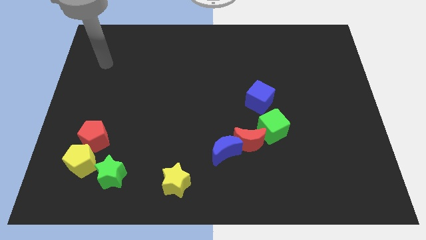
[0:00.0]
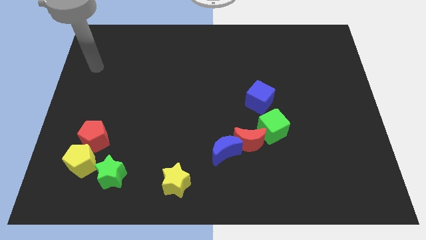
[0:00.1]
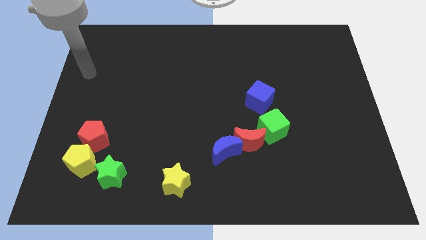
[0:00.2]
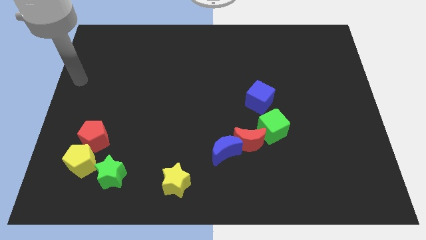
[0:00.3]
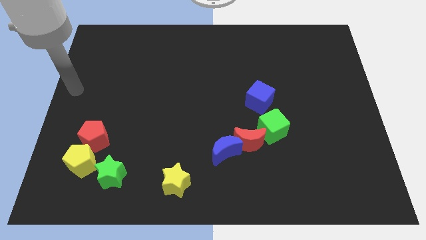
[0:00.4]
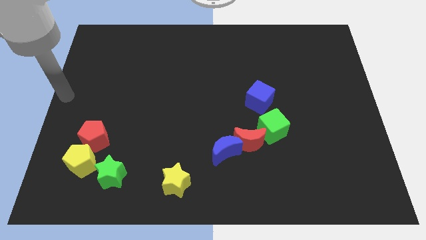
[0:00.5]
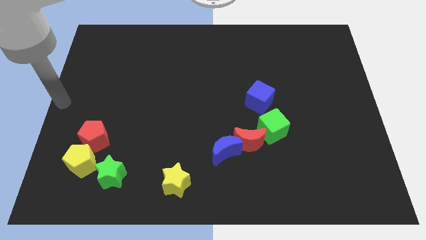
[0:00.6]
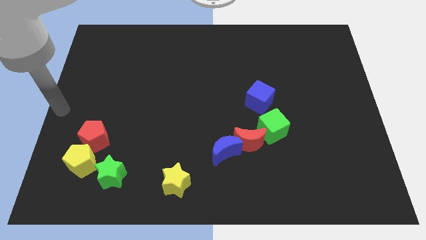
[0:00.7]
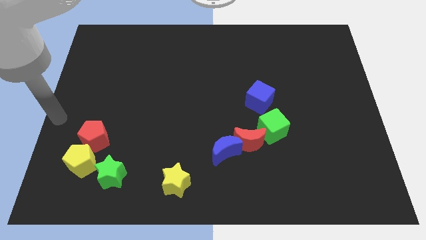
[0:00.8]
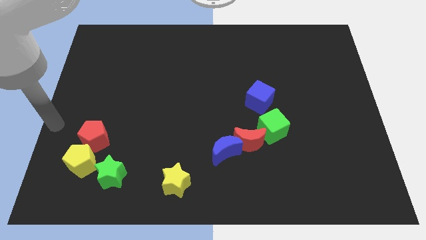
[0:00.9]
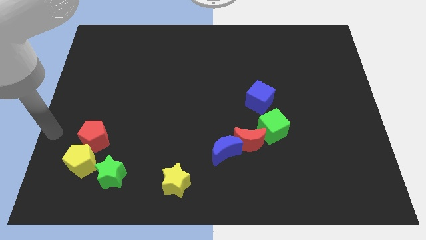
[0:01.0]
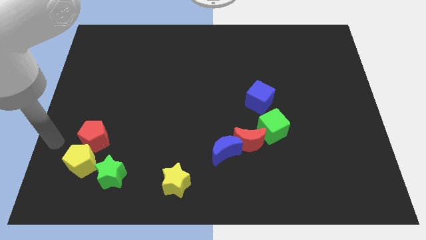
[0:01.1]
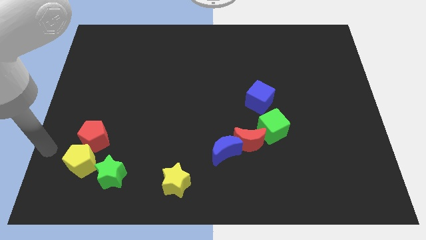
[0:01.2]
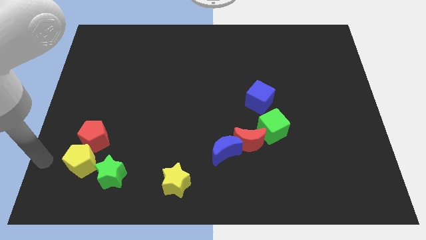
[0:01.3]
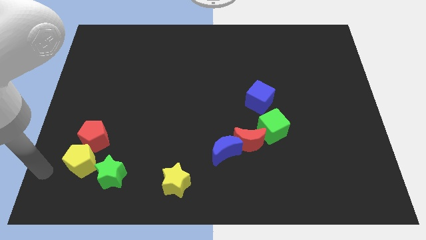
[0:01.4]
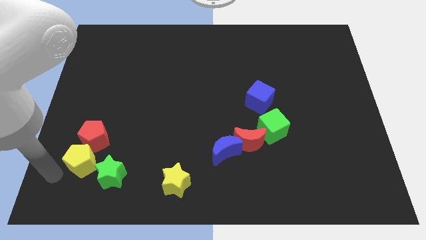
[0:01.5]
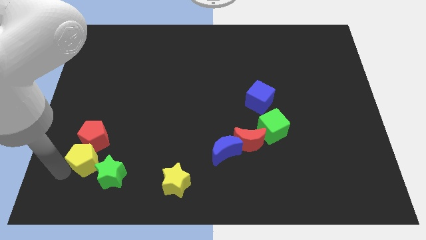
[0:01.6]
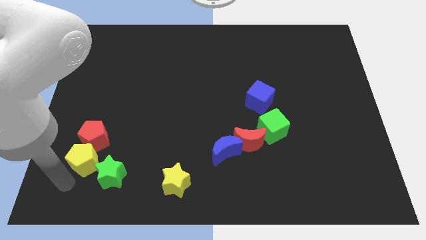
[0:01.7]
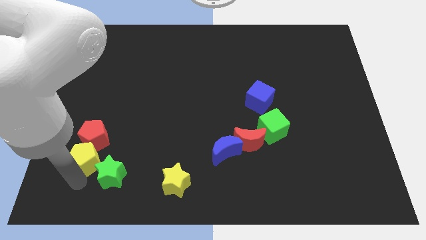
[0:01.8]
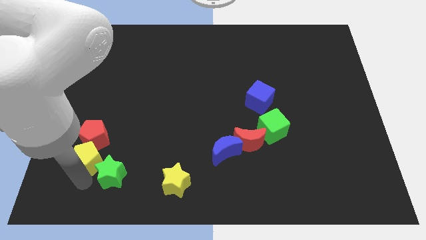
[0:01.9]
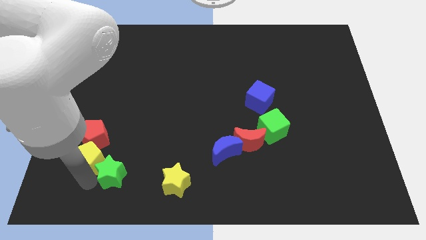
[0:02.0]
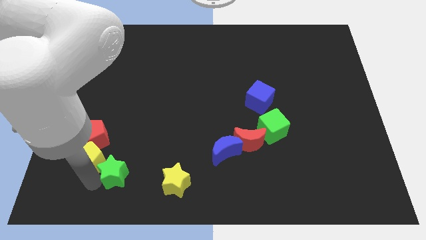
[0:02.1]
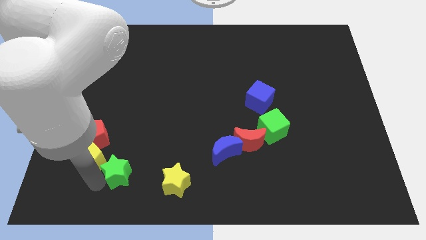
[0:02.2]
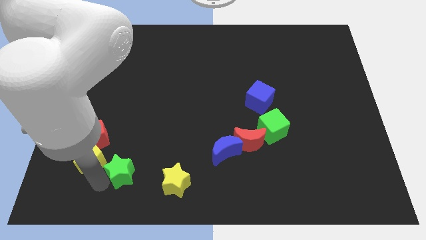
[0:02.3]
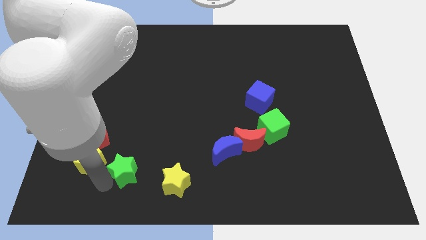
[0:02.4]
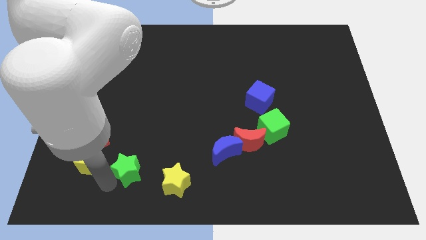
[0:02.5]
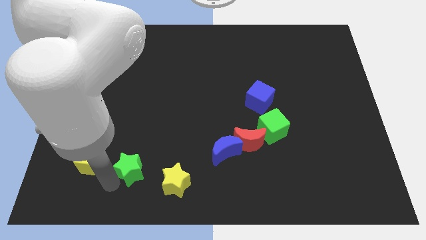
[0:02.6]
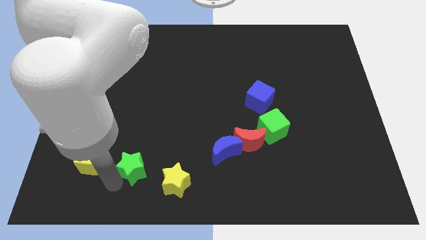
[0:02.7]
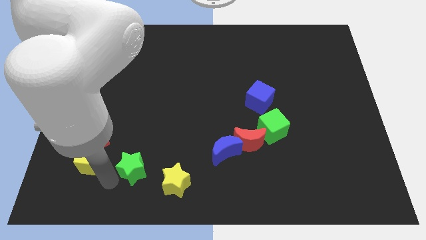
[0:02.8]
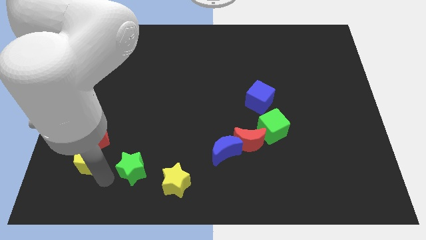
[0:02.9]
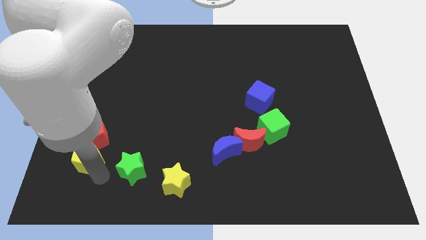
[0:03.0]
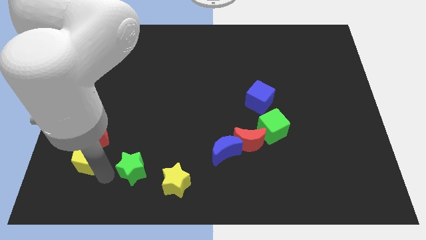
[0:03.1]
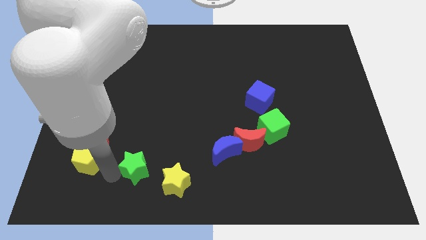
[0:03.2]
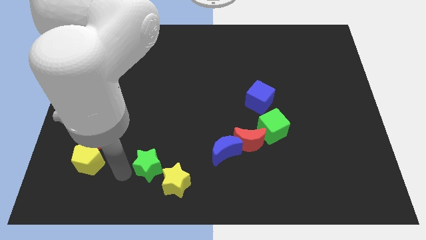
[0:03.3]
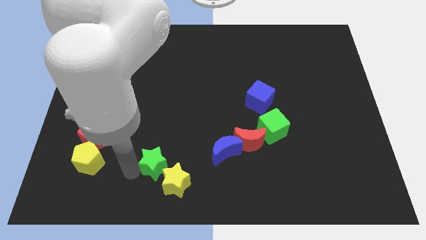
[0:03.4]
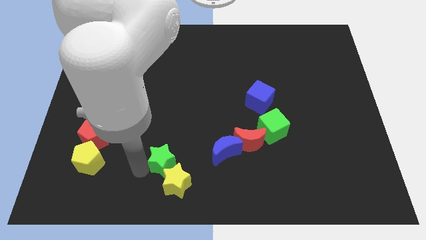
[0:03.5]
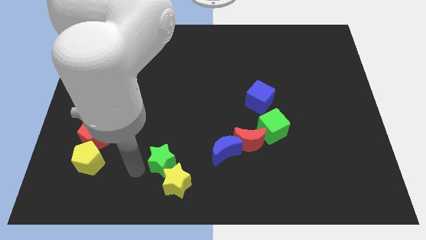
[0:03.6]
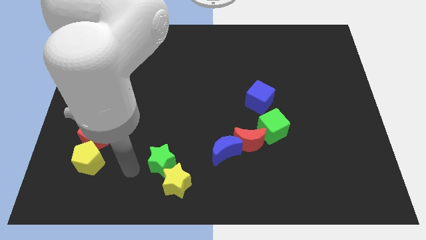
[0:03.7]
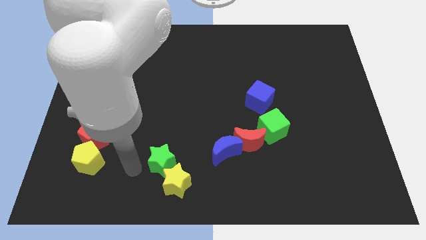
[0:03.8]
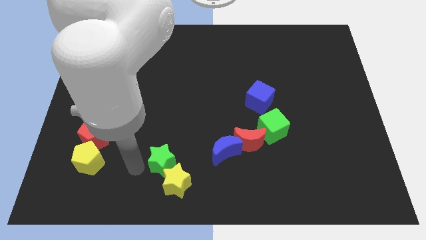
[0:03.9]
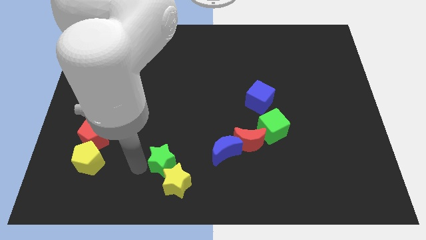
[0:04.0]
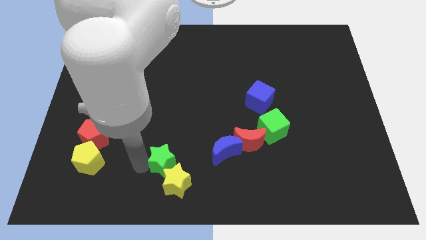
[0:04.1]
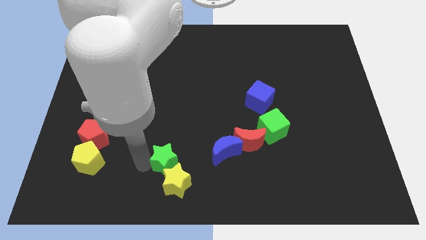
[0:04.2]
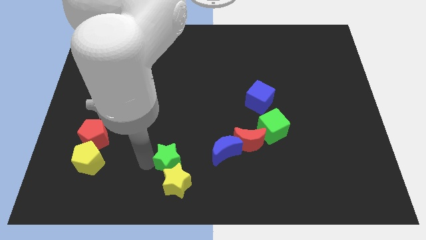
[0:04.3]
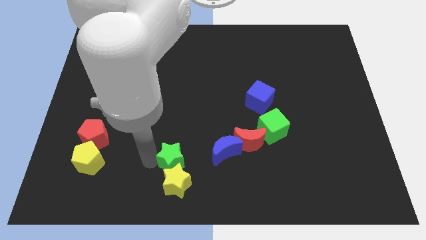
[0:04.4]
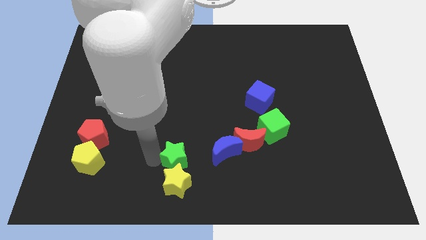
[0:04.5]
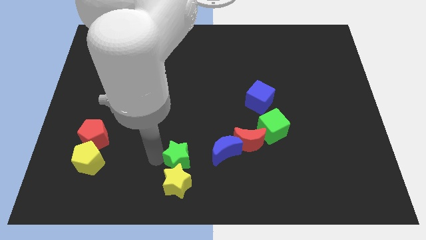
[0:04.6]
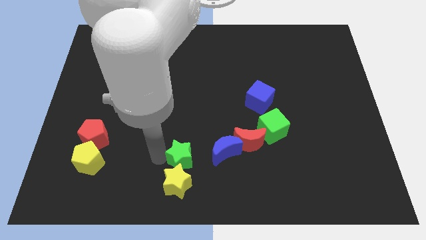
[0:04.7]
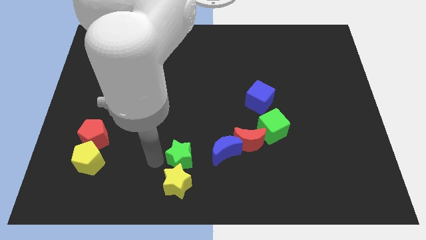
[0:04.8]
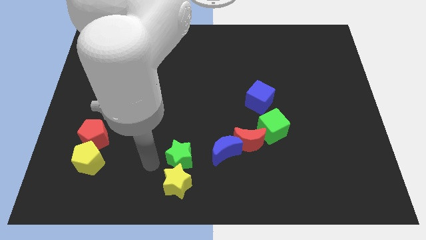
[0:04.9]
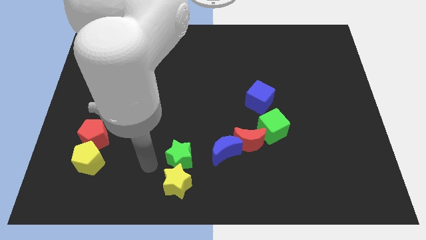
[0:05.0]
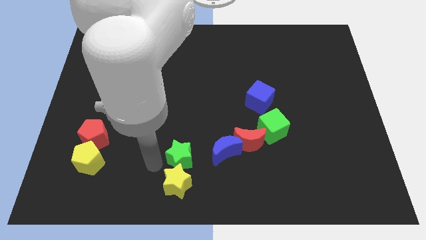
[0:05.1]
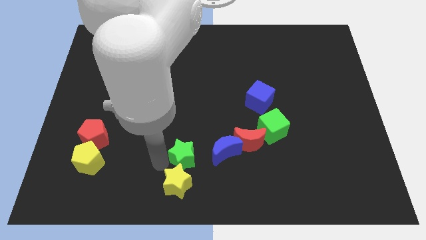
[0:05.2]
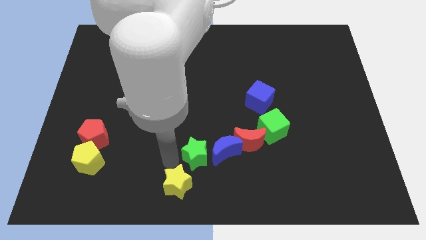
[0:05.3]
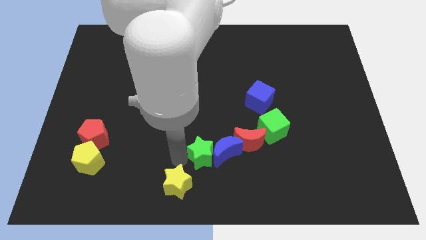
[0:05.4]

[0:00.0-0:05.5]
push the green star to the blue moon

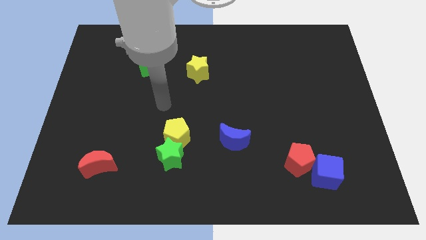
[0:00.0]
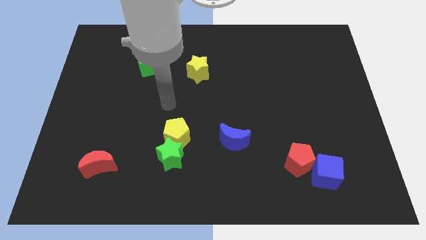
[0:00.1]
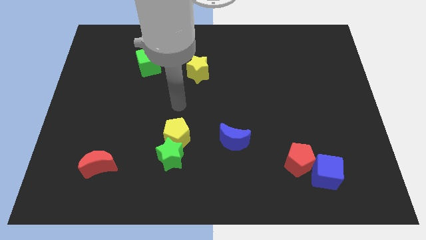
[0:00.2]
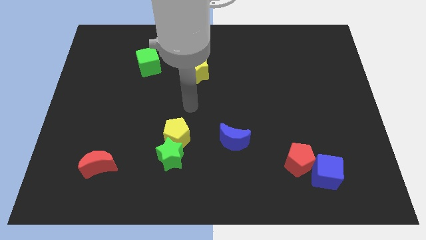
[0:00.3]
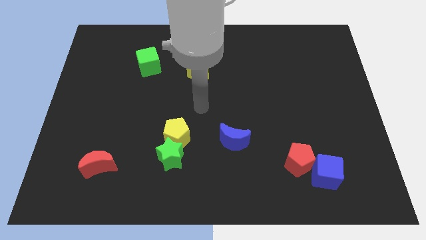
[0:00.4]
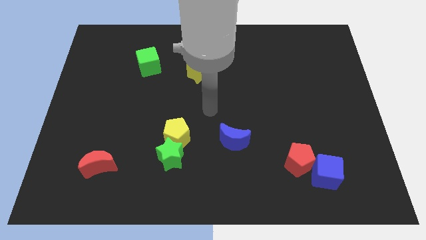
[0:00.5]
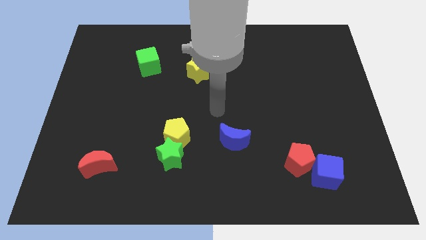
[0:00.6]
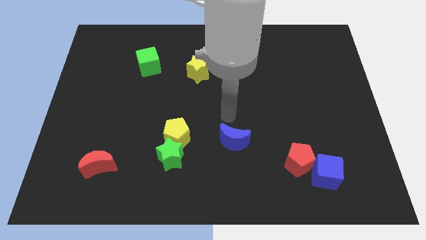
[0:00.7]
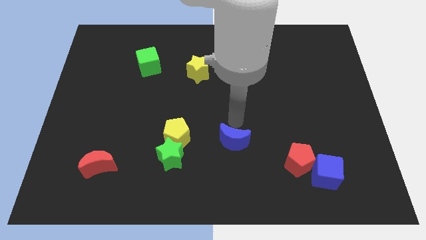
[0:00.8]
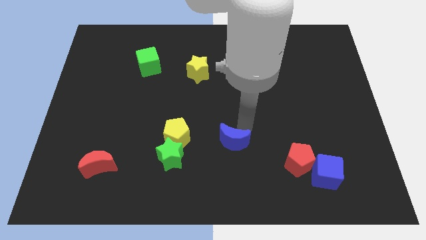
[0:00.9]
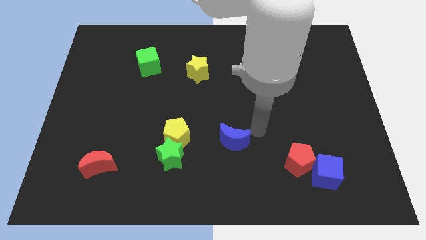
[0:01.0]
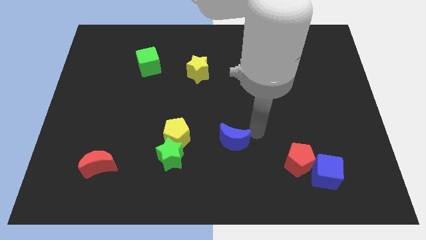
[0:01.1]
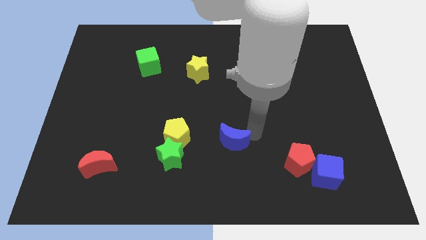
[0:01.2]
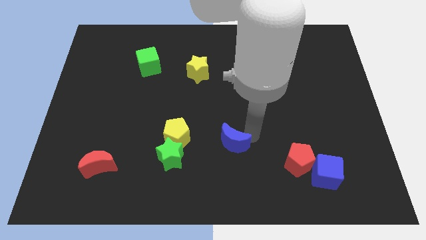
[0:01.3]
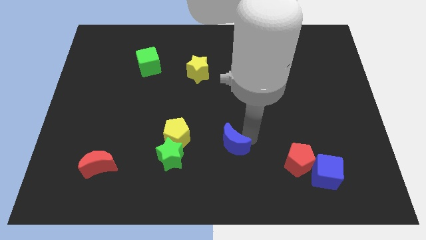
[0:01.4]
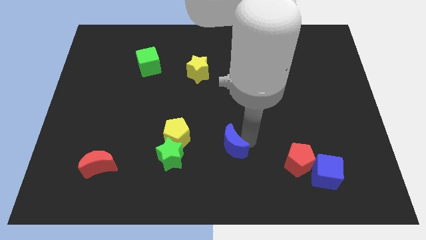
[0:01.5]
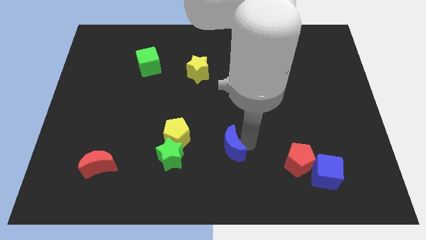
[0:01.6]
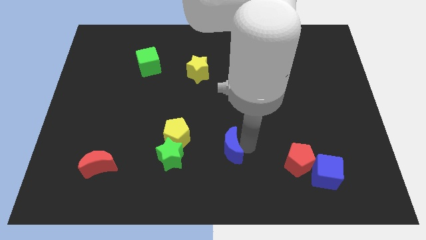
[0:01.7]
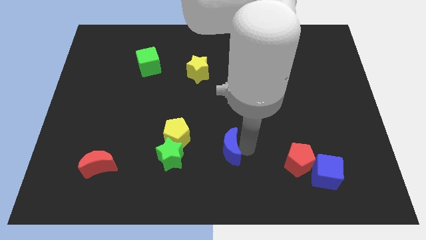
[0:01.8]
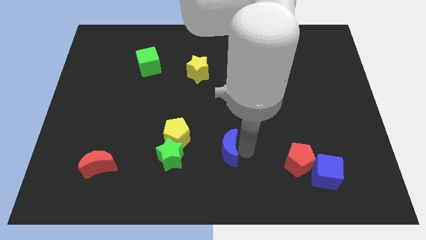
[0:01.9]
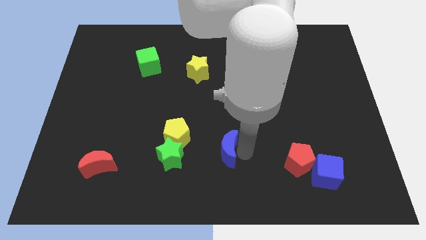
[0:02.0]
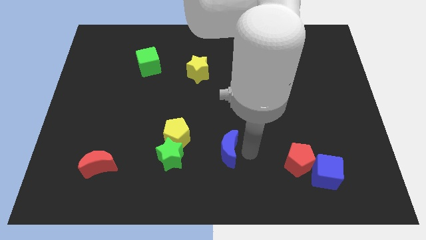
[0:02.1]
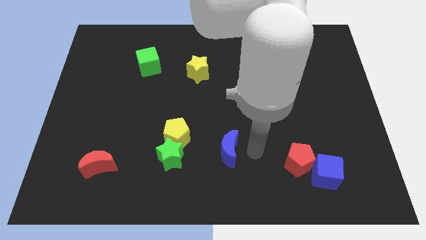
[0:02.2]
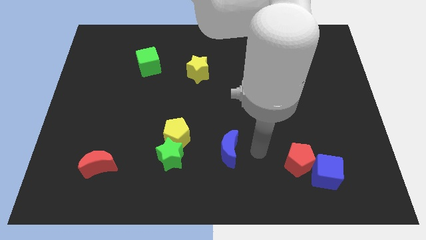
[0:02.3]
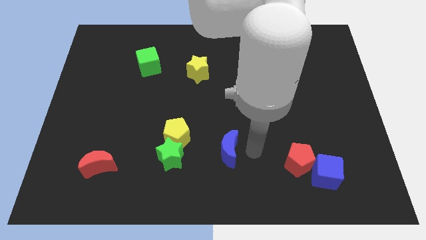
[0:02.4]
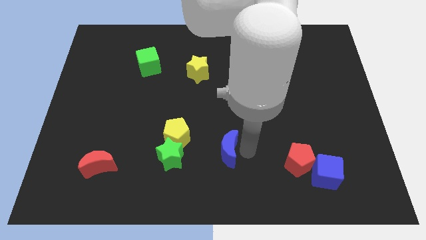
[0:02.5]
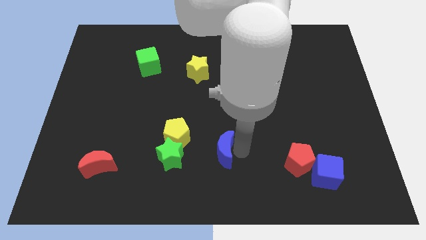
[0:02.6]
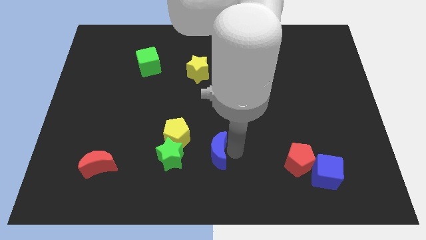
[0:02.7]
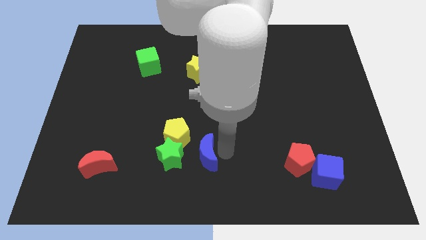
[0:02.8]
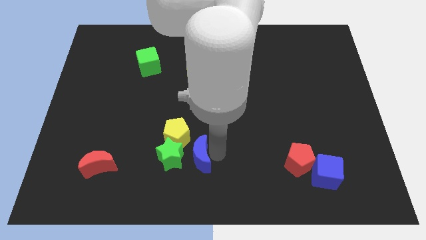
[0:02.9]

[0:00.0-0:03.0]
put the blue moon towards the green star
